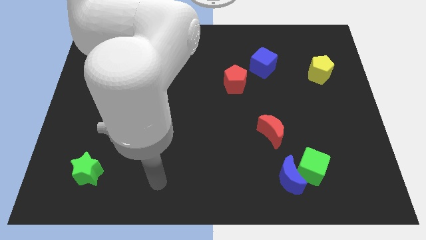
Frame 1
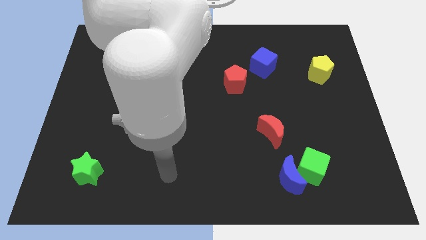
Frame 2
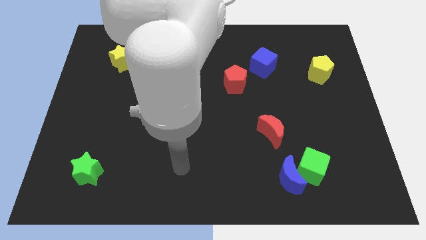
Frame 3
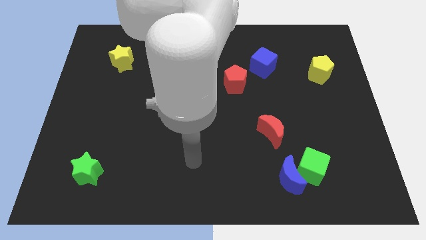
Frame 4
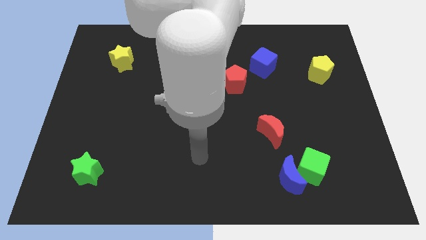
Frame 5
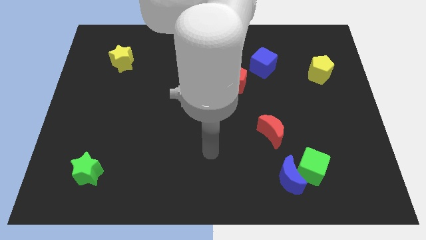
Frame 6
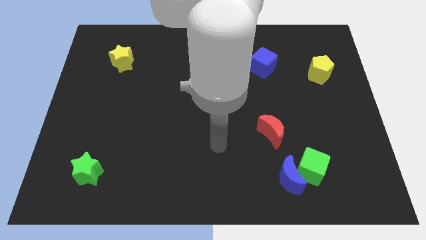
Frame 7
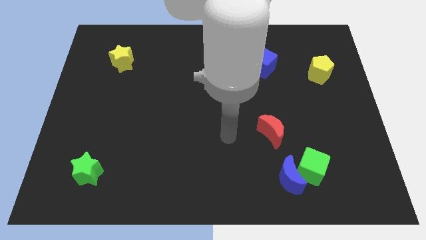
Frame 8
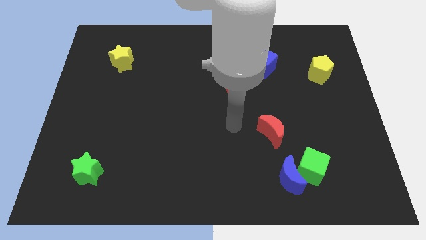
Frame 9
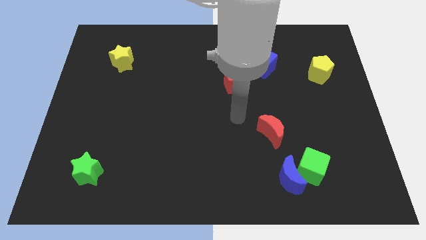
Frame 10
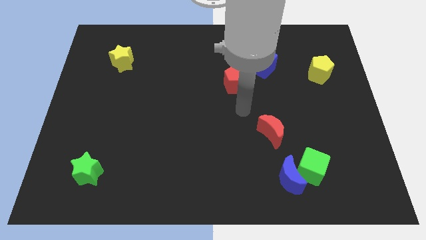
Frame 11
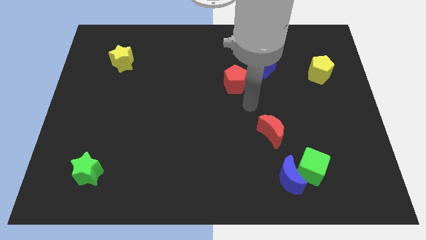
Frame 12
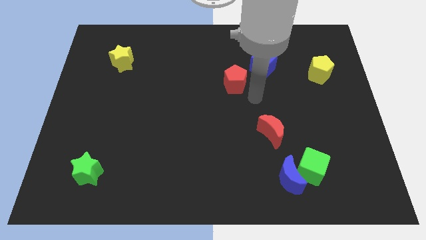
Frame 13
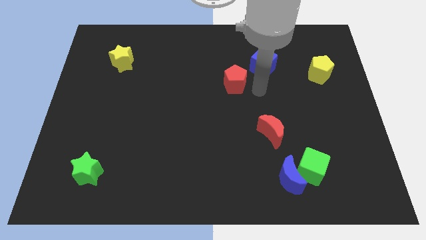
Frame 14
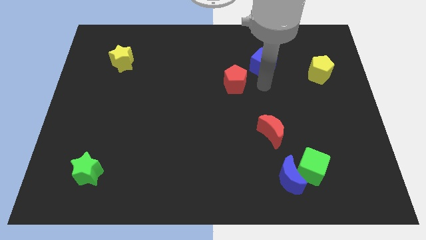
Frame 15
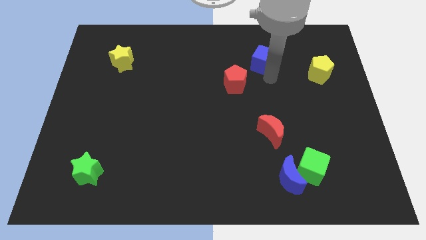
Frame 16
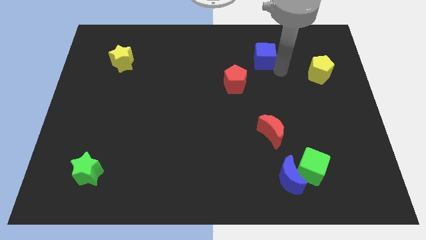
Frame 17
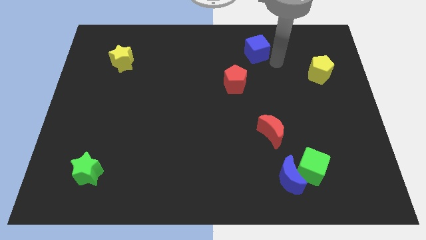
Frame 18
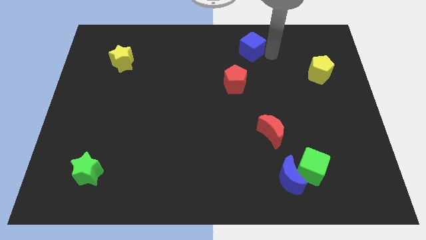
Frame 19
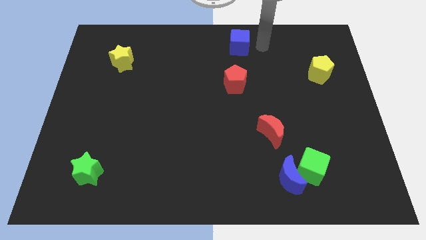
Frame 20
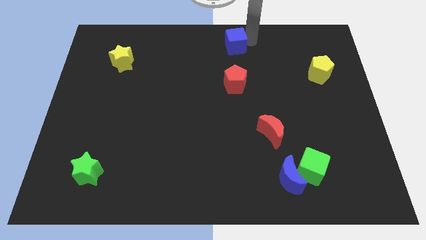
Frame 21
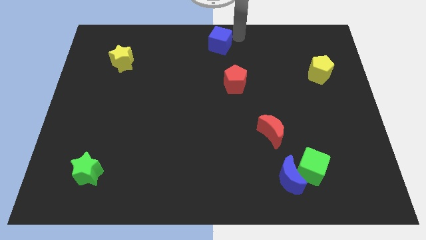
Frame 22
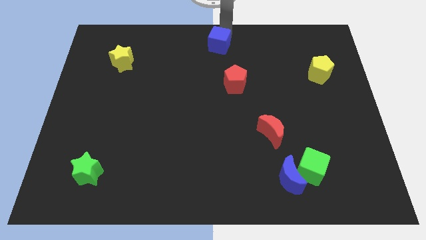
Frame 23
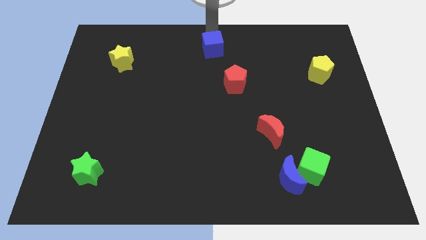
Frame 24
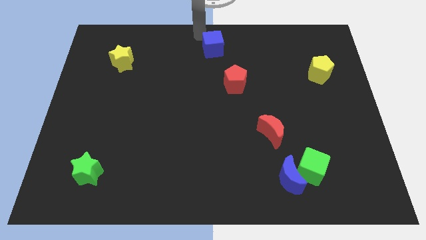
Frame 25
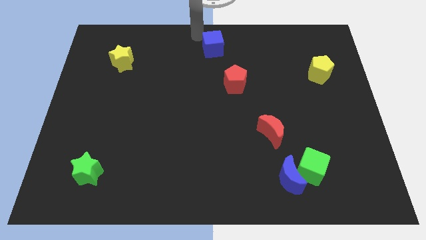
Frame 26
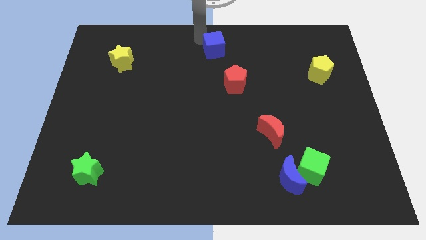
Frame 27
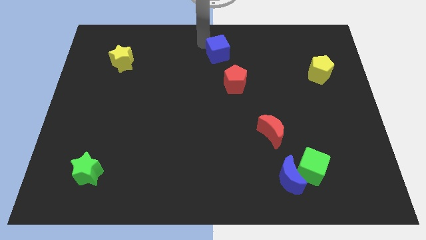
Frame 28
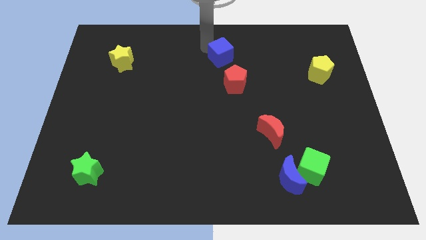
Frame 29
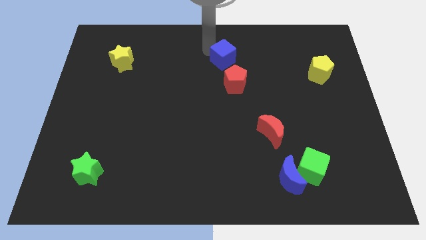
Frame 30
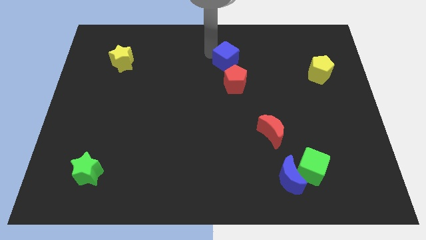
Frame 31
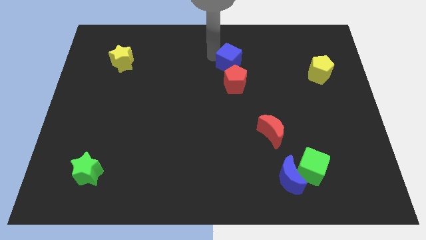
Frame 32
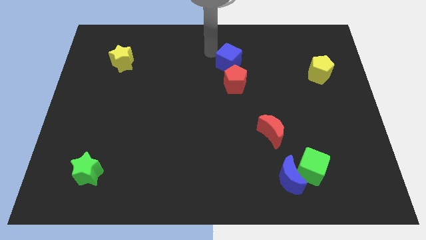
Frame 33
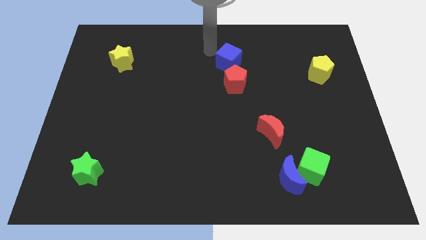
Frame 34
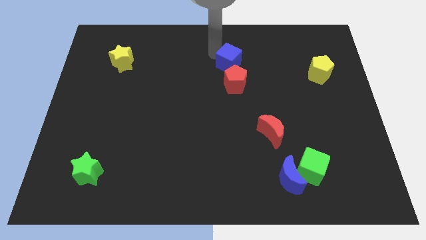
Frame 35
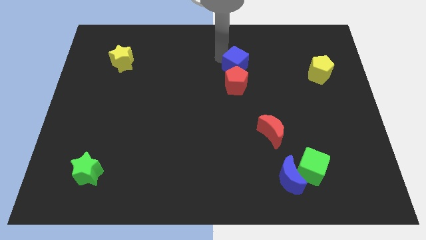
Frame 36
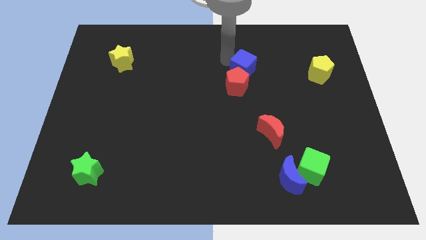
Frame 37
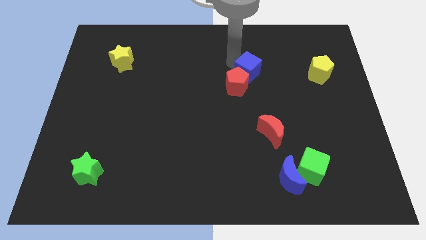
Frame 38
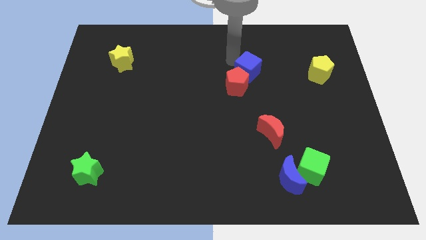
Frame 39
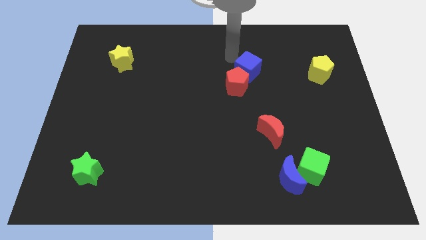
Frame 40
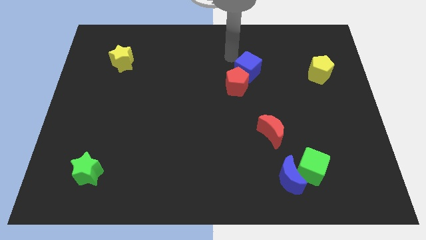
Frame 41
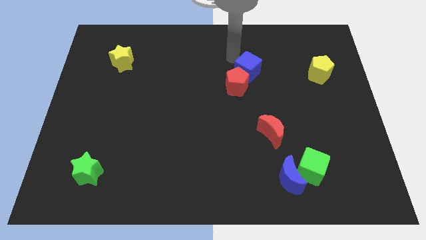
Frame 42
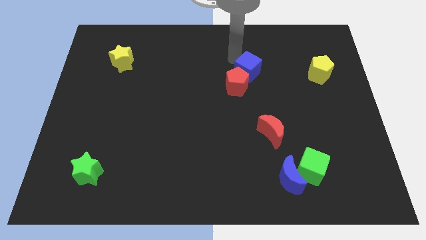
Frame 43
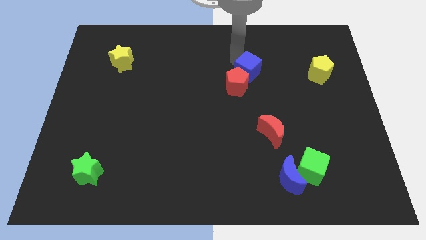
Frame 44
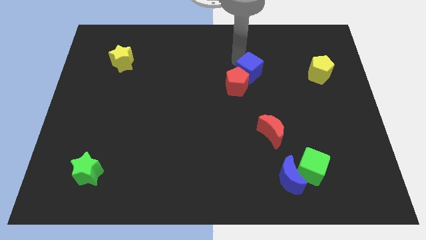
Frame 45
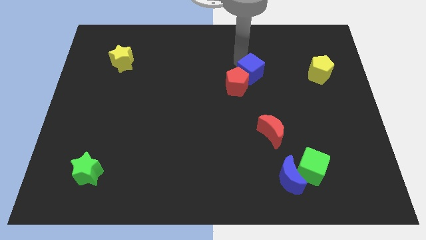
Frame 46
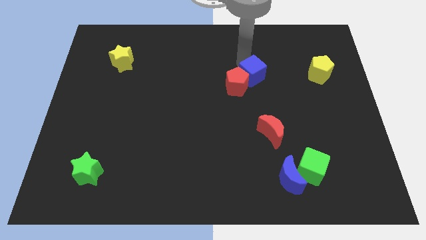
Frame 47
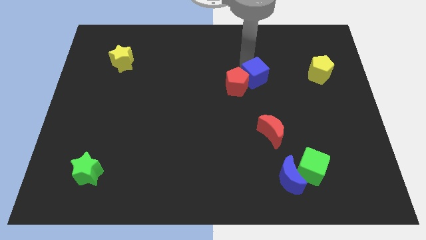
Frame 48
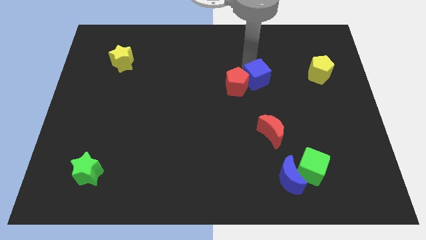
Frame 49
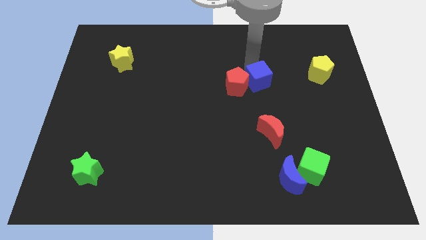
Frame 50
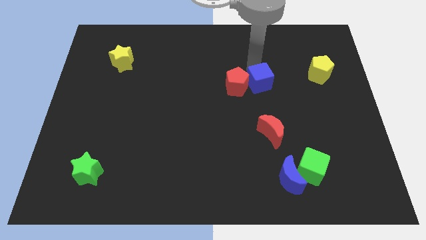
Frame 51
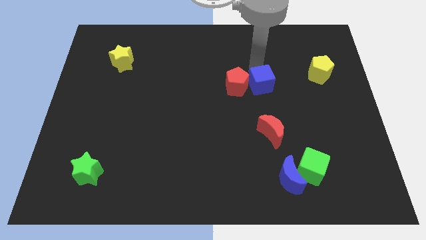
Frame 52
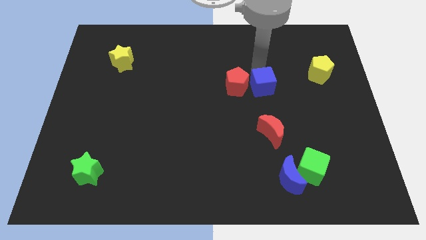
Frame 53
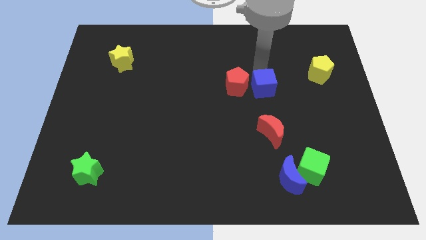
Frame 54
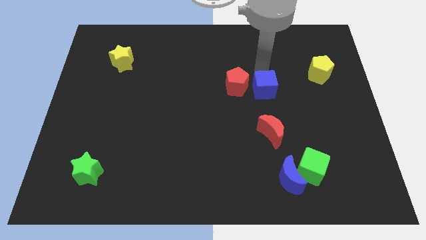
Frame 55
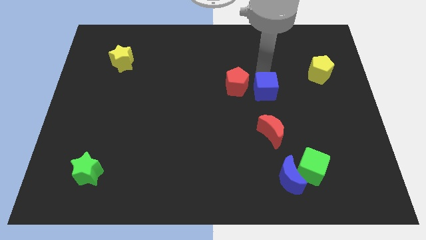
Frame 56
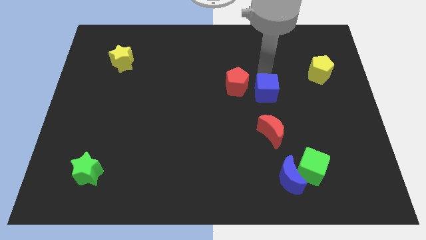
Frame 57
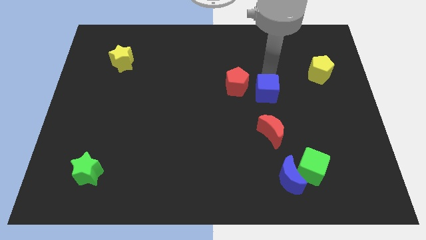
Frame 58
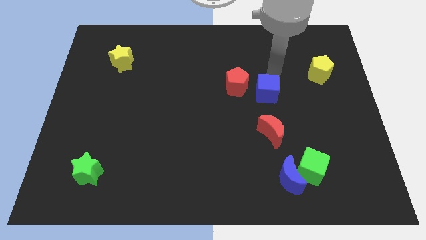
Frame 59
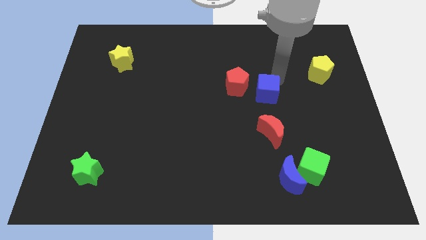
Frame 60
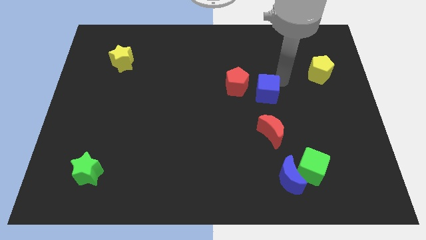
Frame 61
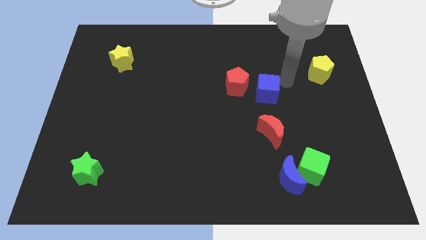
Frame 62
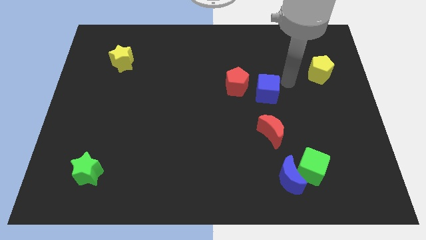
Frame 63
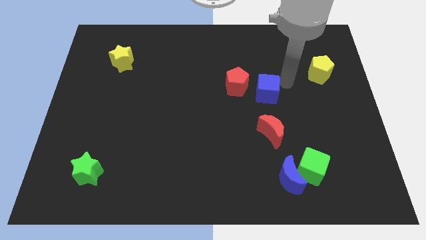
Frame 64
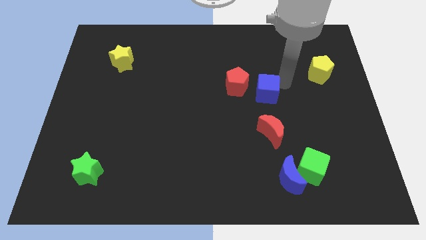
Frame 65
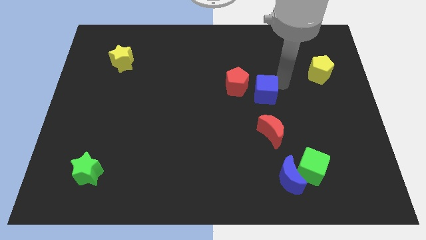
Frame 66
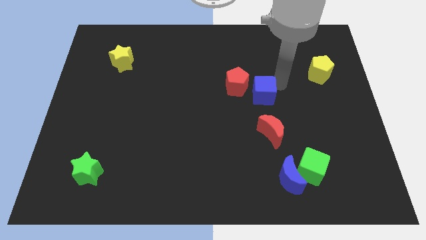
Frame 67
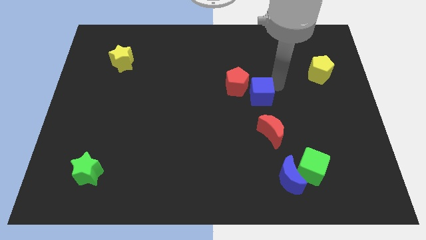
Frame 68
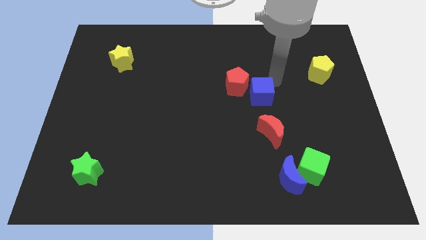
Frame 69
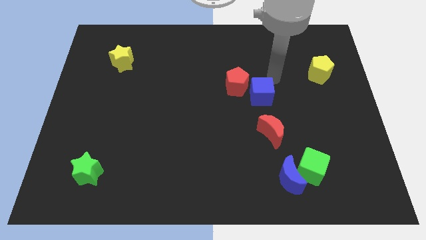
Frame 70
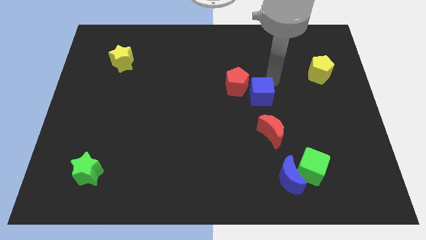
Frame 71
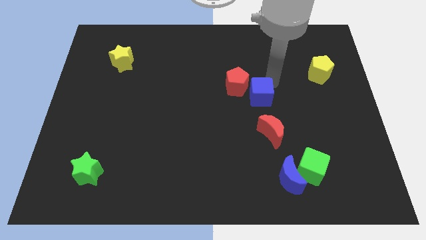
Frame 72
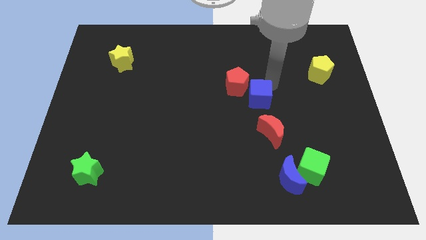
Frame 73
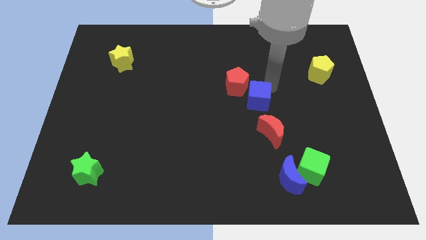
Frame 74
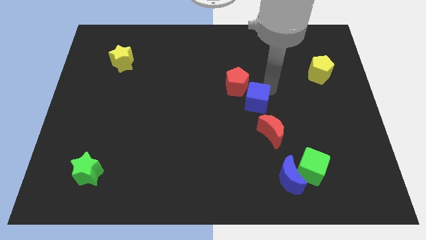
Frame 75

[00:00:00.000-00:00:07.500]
slide the blue cube diagonally up and to the left of the red moon
